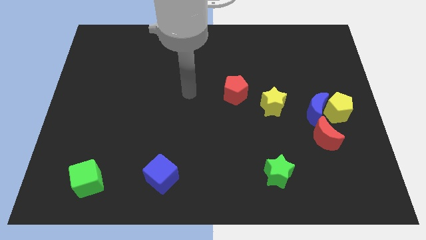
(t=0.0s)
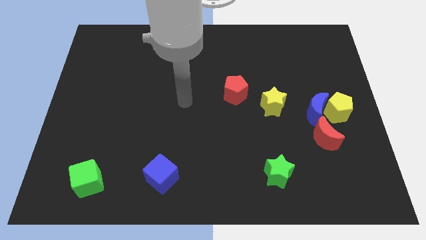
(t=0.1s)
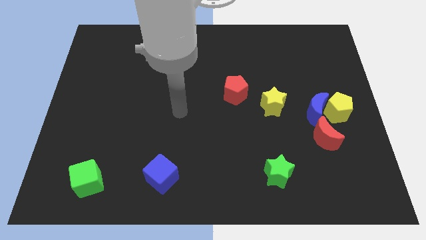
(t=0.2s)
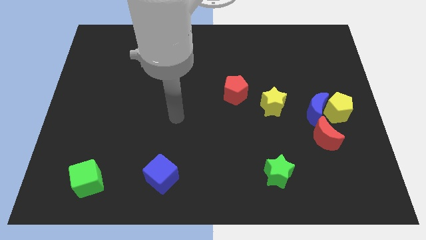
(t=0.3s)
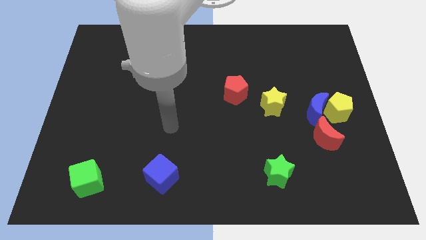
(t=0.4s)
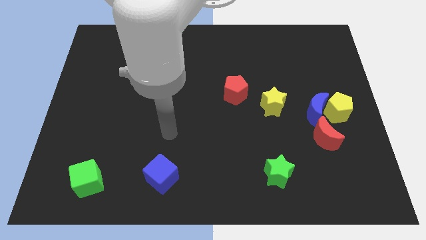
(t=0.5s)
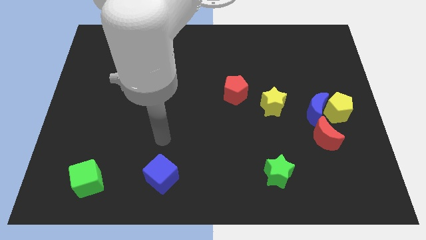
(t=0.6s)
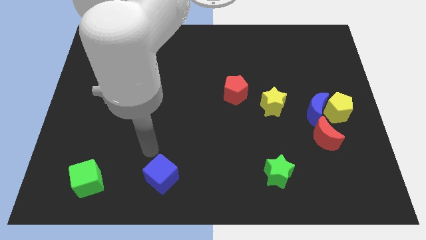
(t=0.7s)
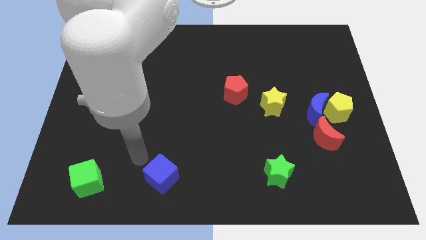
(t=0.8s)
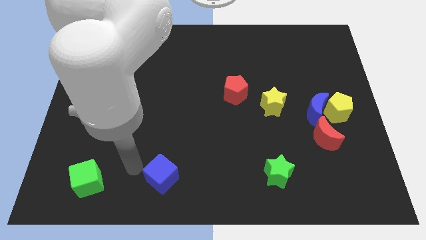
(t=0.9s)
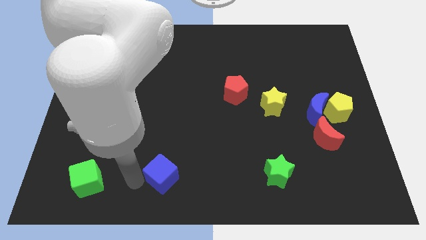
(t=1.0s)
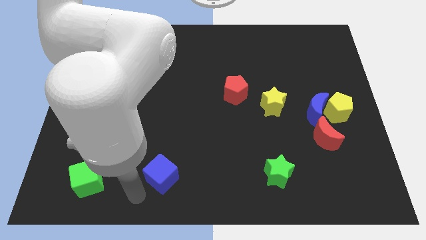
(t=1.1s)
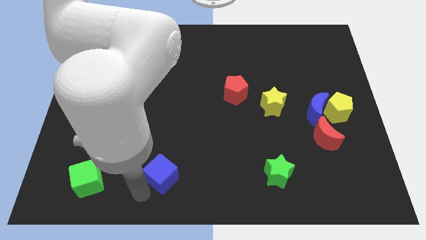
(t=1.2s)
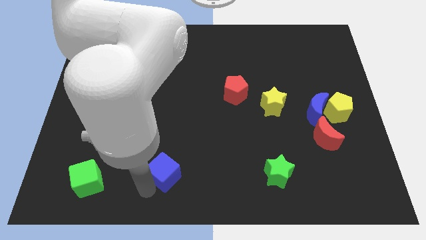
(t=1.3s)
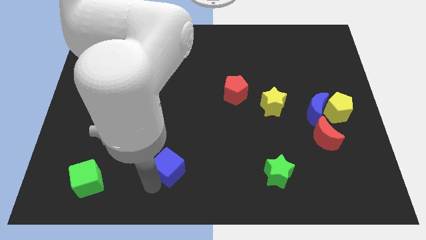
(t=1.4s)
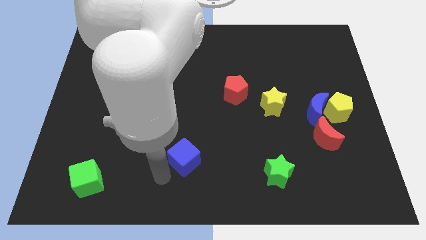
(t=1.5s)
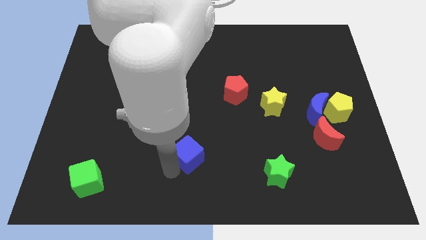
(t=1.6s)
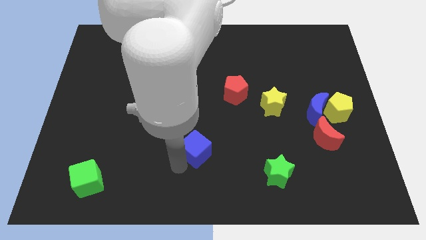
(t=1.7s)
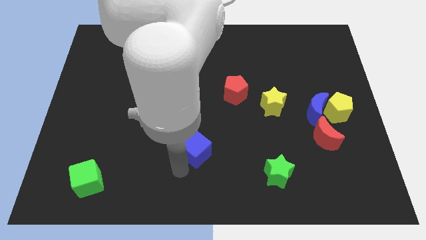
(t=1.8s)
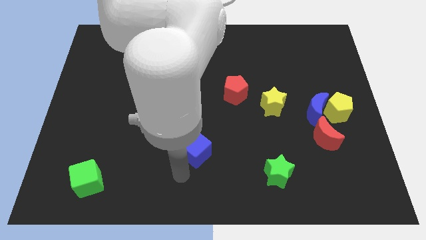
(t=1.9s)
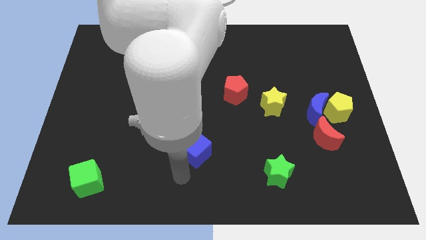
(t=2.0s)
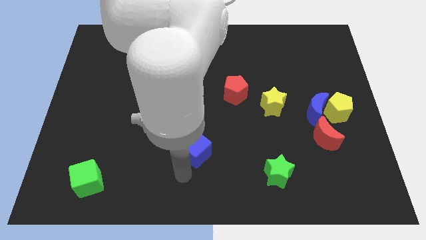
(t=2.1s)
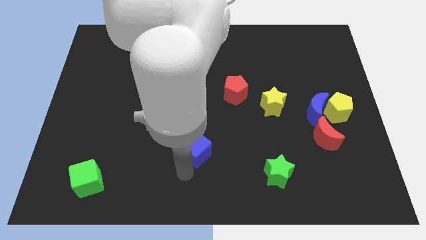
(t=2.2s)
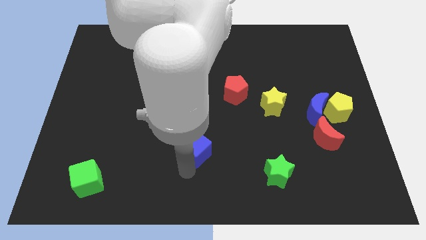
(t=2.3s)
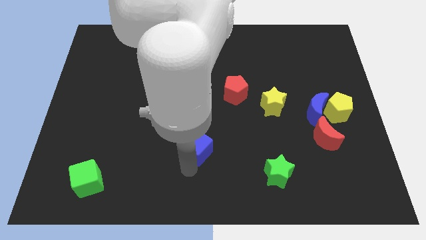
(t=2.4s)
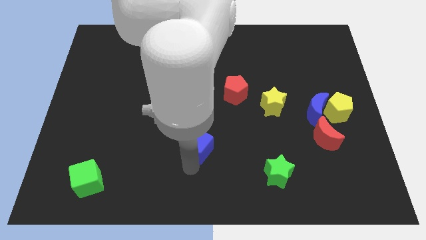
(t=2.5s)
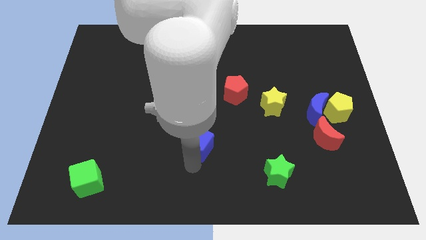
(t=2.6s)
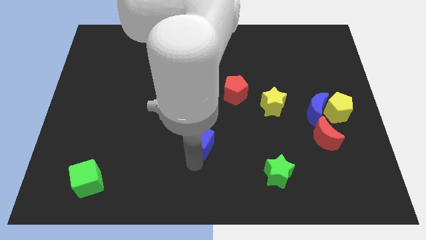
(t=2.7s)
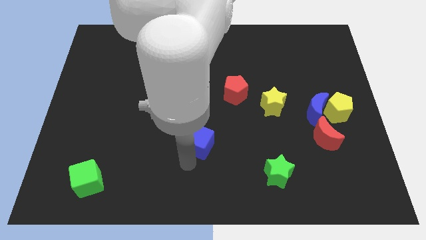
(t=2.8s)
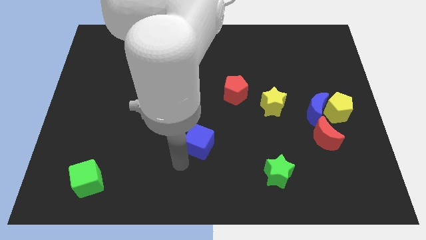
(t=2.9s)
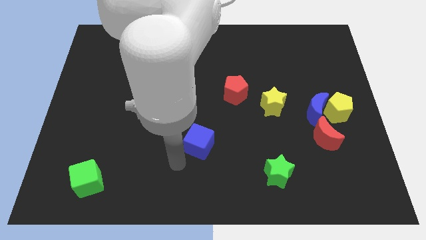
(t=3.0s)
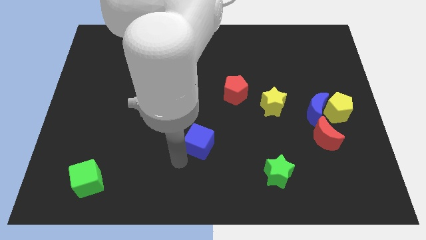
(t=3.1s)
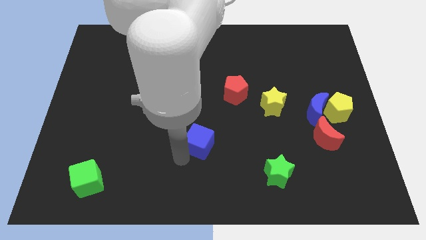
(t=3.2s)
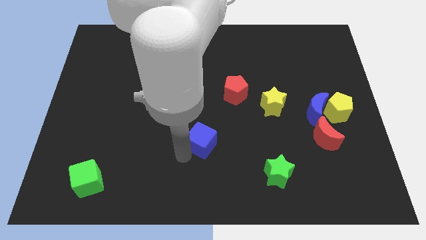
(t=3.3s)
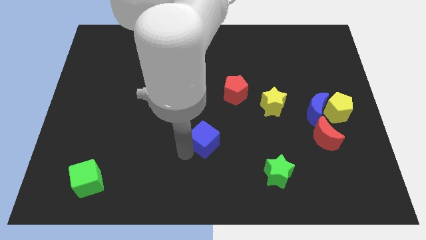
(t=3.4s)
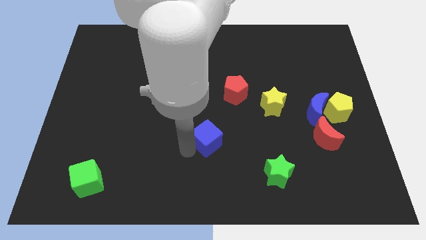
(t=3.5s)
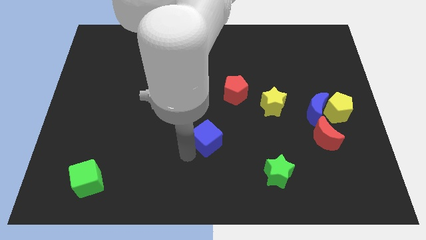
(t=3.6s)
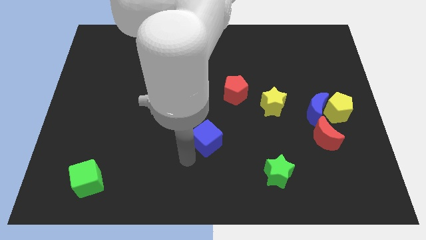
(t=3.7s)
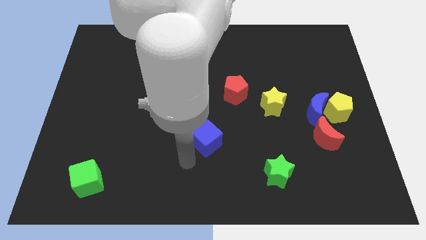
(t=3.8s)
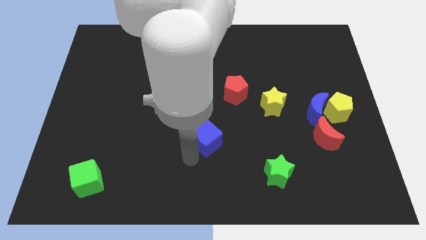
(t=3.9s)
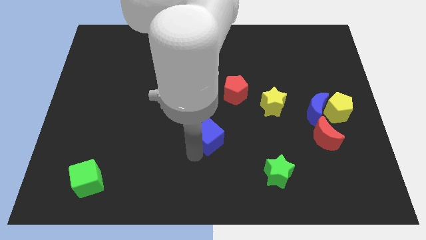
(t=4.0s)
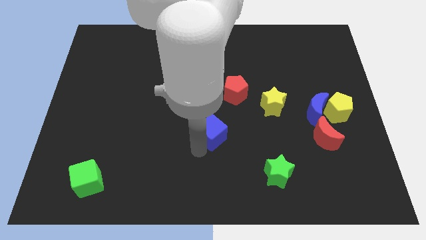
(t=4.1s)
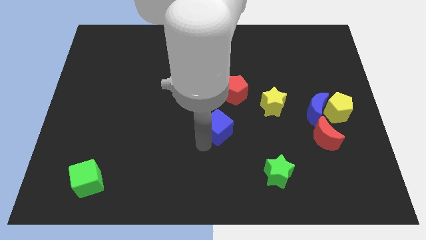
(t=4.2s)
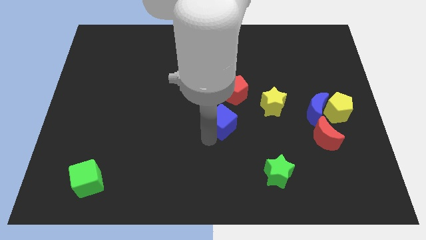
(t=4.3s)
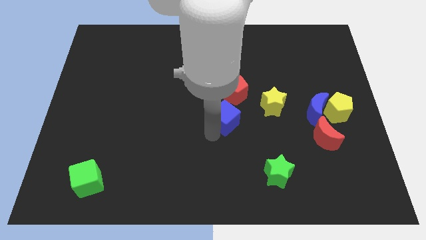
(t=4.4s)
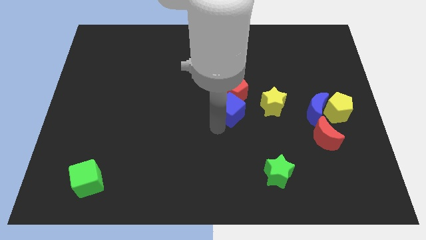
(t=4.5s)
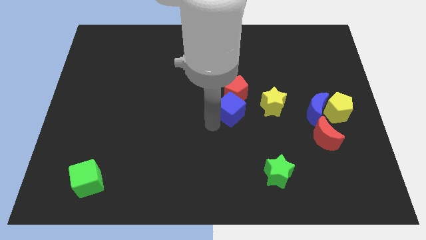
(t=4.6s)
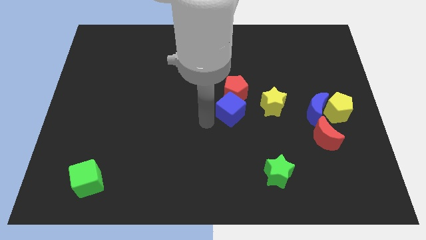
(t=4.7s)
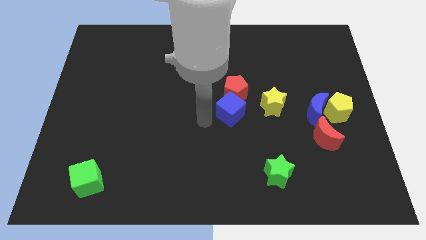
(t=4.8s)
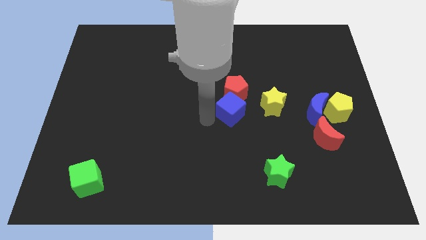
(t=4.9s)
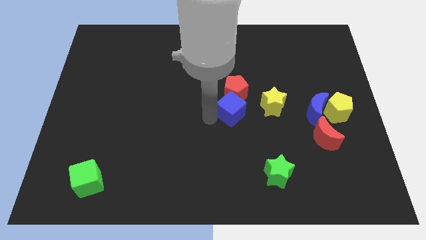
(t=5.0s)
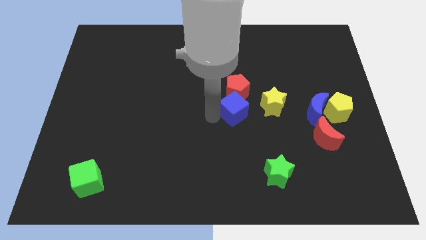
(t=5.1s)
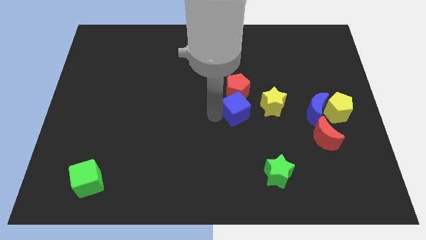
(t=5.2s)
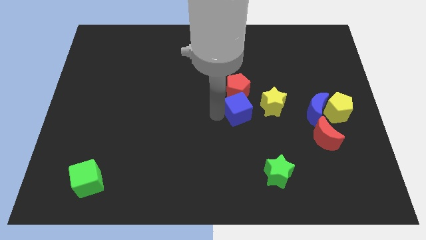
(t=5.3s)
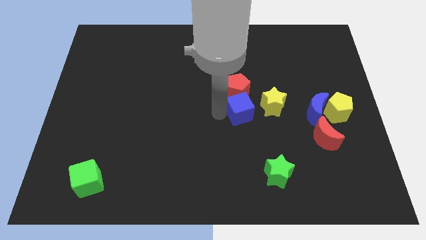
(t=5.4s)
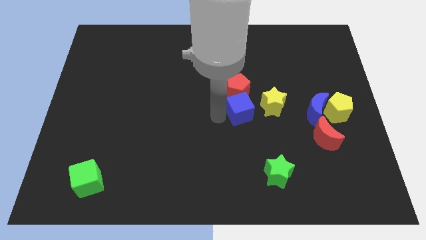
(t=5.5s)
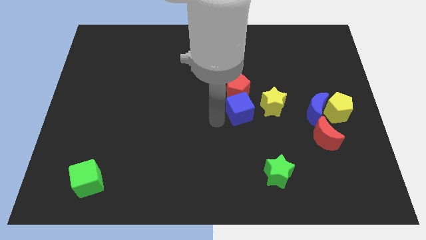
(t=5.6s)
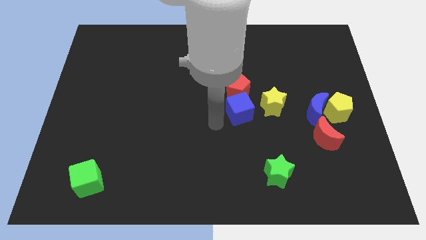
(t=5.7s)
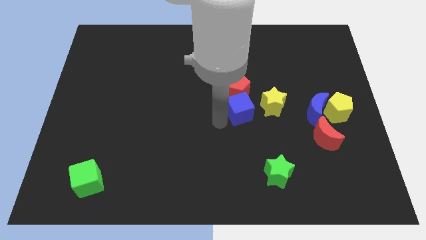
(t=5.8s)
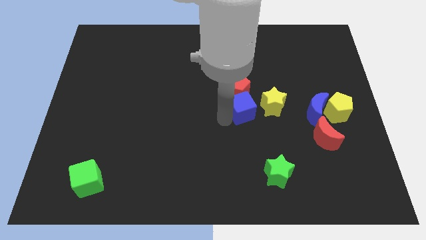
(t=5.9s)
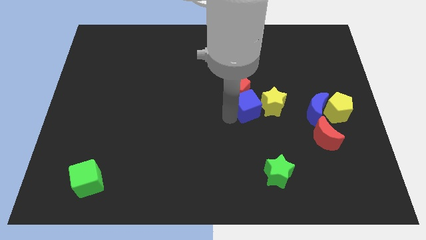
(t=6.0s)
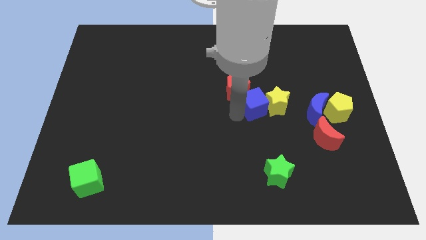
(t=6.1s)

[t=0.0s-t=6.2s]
slide the blue cube to the right of the red pentagon

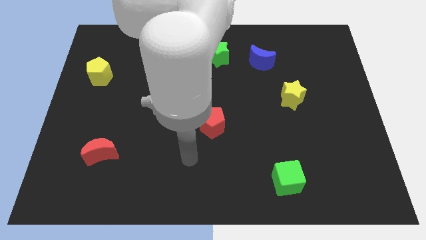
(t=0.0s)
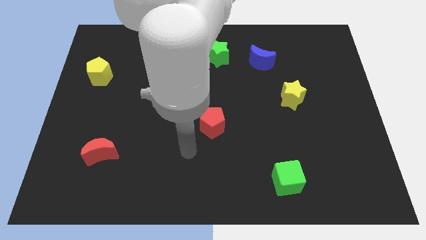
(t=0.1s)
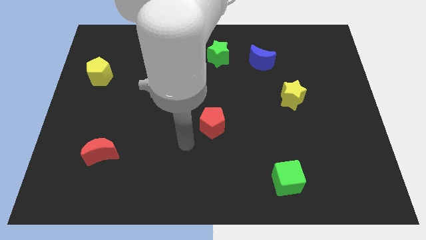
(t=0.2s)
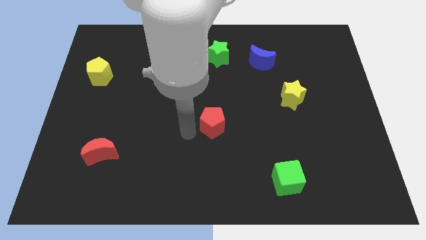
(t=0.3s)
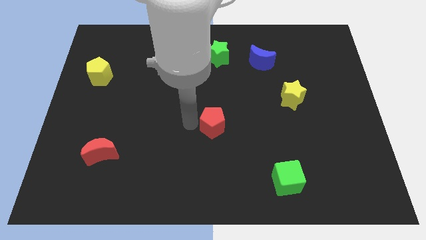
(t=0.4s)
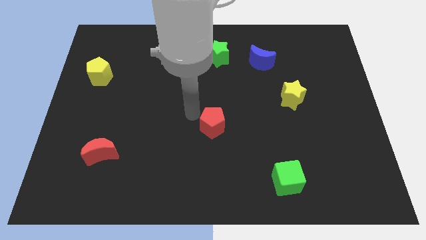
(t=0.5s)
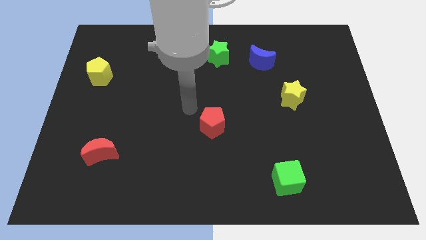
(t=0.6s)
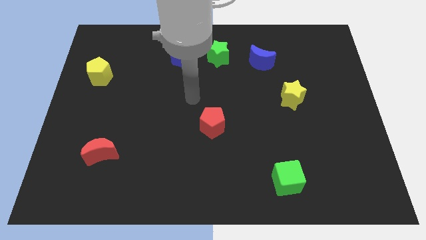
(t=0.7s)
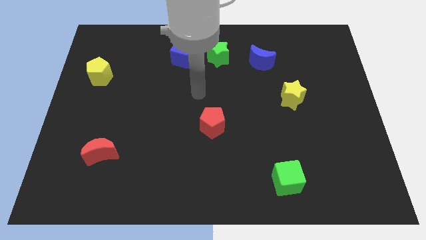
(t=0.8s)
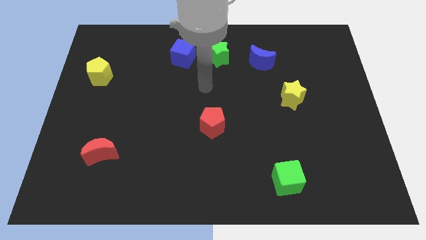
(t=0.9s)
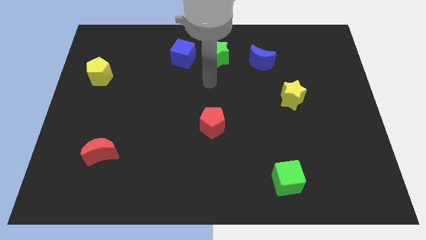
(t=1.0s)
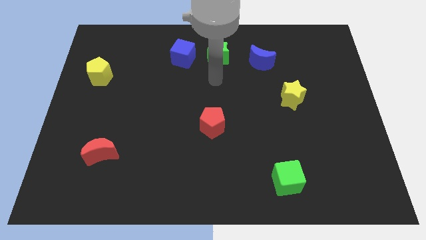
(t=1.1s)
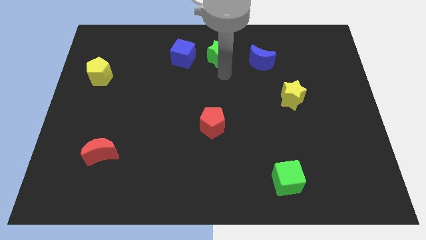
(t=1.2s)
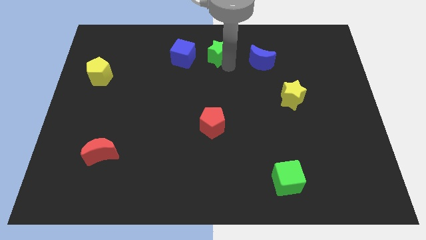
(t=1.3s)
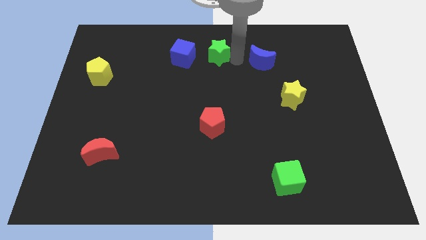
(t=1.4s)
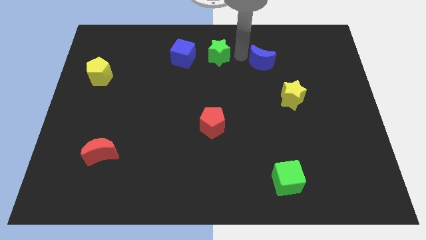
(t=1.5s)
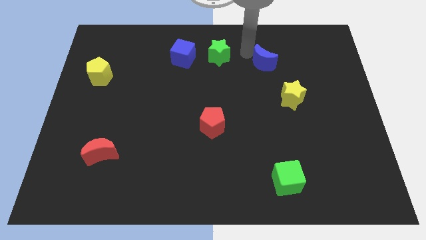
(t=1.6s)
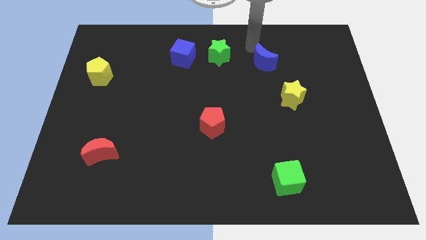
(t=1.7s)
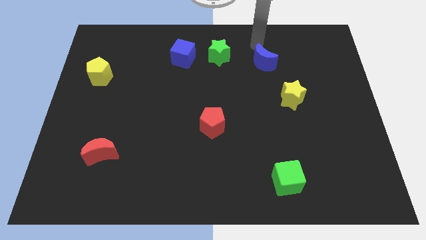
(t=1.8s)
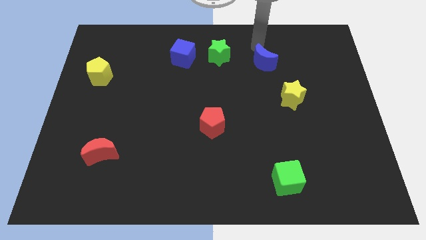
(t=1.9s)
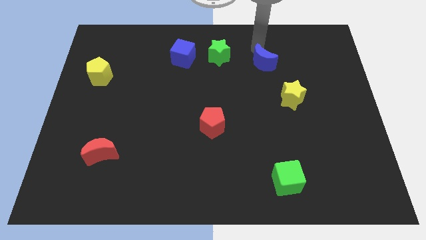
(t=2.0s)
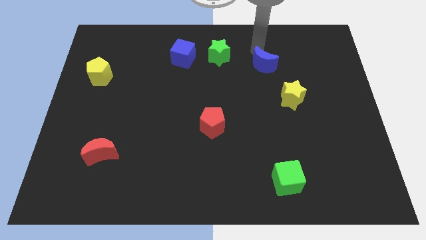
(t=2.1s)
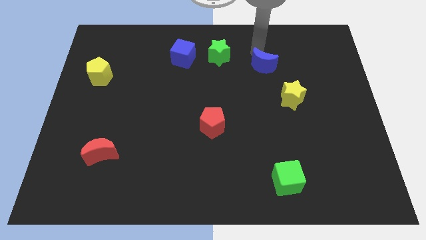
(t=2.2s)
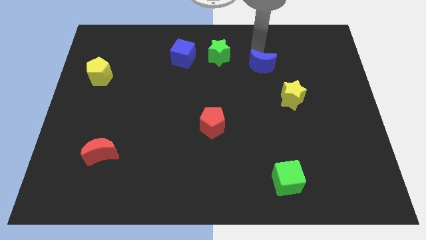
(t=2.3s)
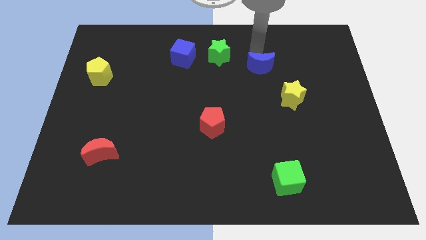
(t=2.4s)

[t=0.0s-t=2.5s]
move the blue moon to the top left of the yellow star
